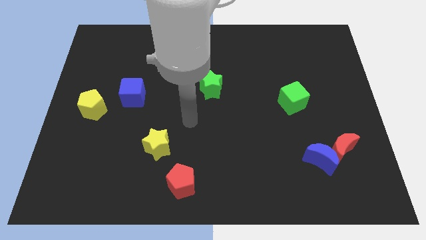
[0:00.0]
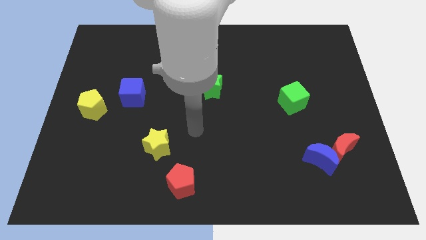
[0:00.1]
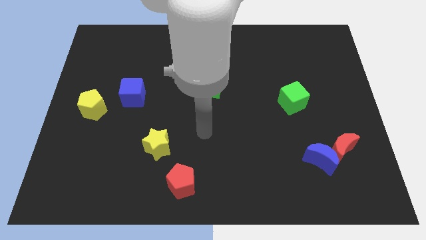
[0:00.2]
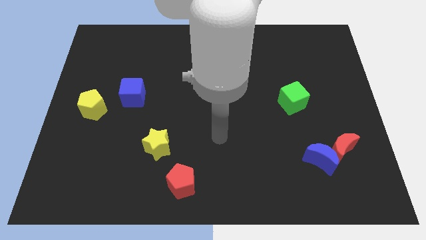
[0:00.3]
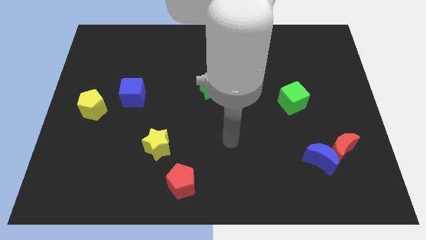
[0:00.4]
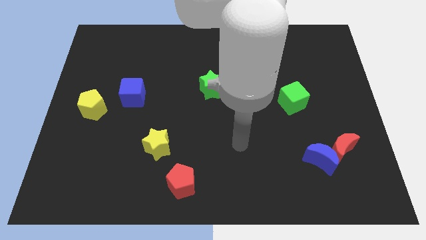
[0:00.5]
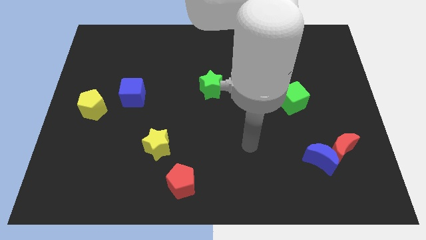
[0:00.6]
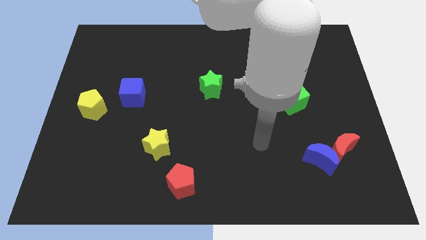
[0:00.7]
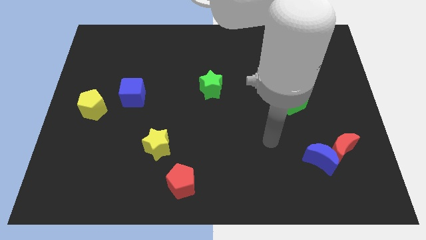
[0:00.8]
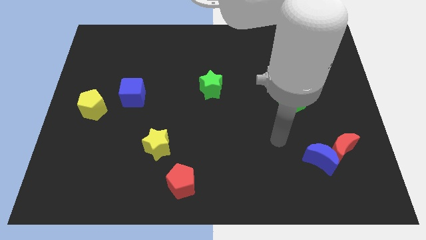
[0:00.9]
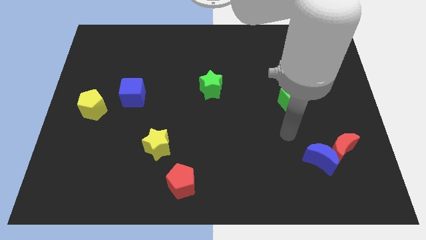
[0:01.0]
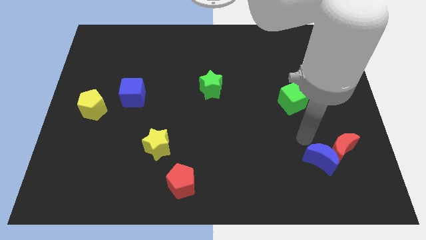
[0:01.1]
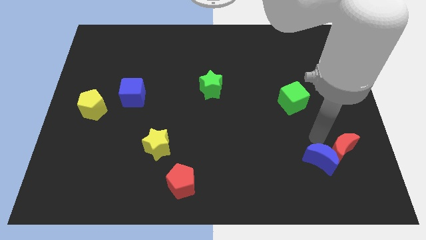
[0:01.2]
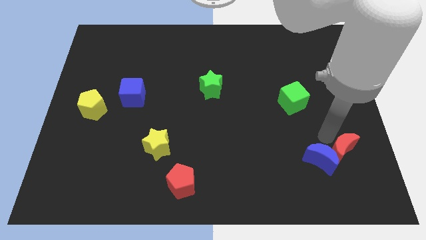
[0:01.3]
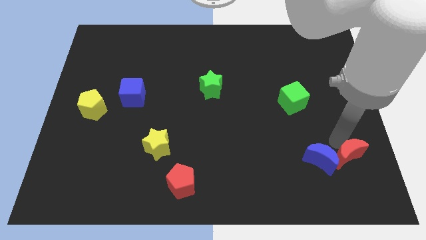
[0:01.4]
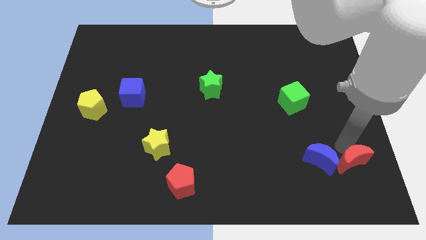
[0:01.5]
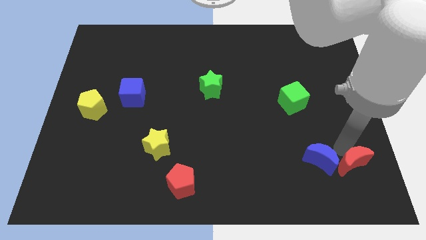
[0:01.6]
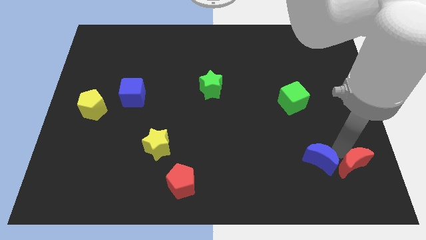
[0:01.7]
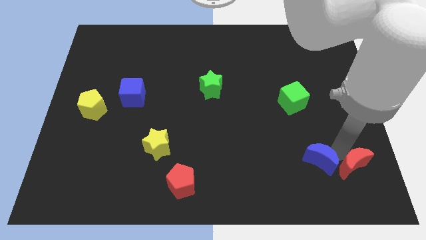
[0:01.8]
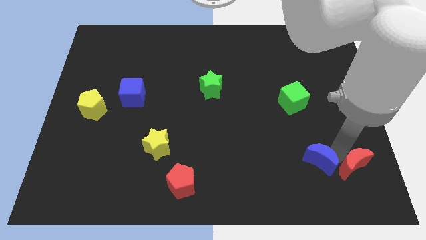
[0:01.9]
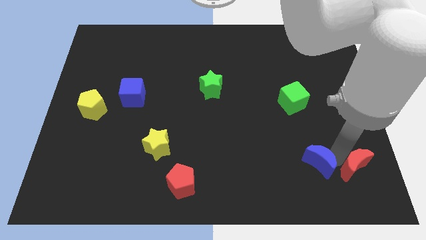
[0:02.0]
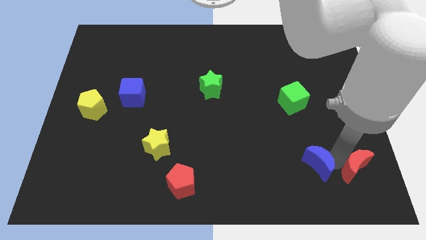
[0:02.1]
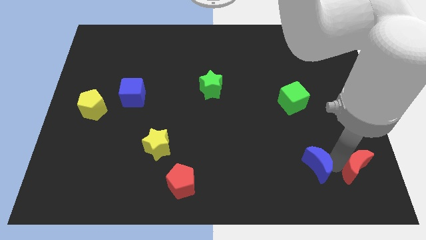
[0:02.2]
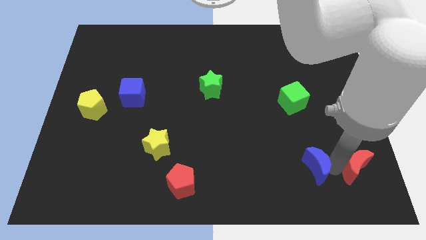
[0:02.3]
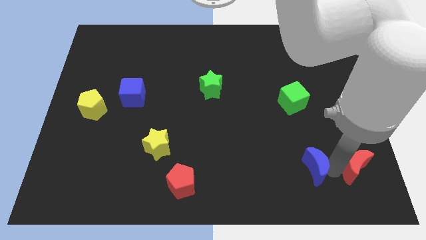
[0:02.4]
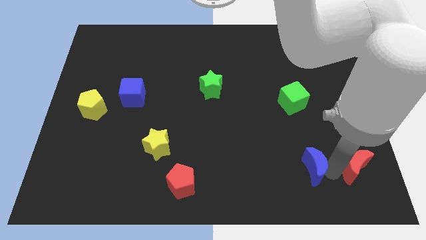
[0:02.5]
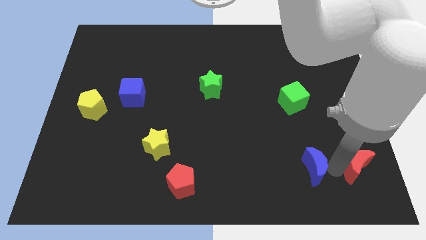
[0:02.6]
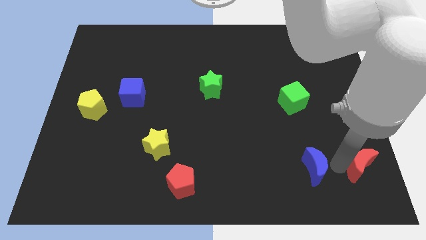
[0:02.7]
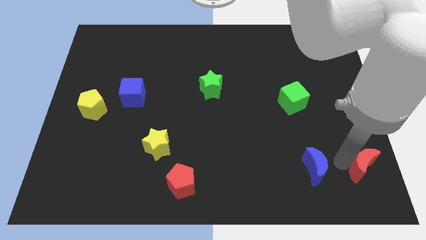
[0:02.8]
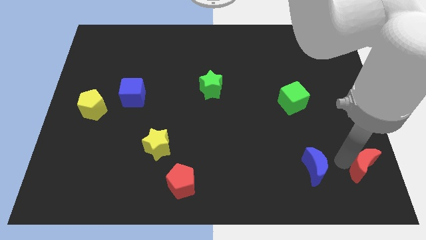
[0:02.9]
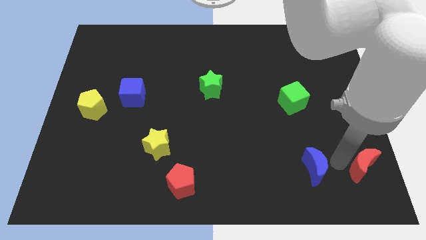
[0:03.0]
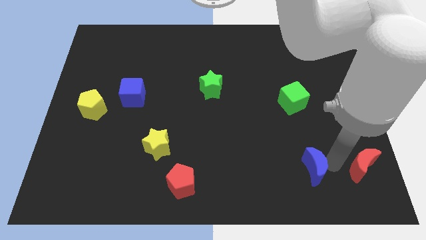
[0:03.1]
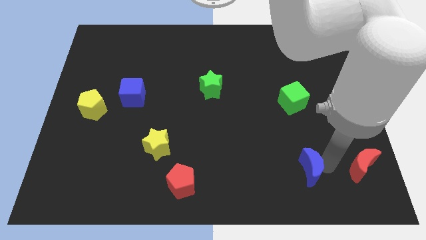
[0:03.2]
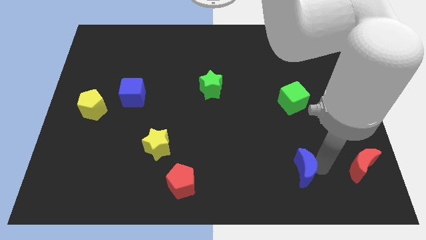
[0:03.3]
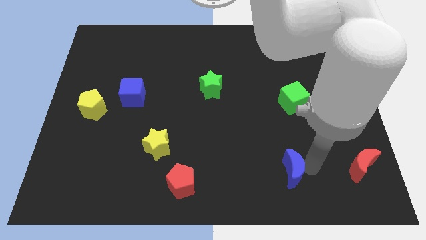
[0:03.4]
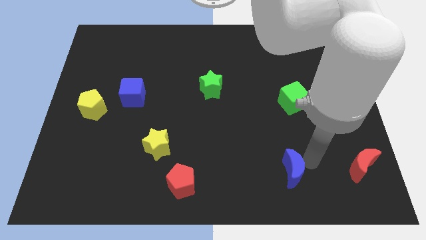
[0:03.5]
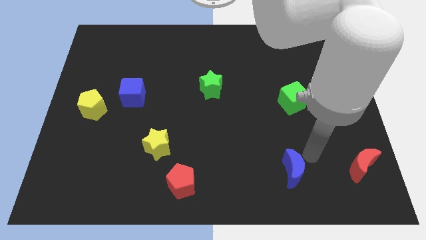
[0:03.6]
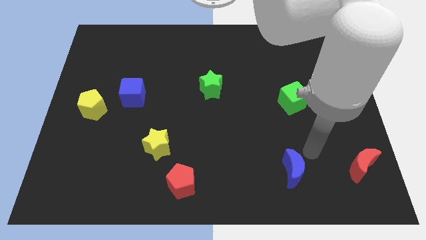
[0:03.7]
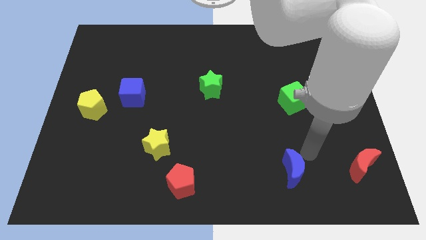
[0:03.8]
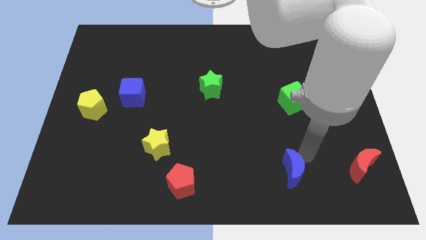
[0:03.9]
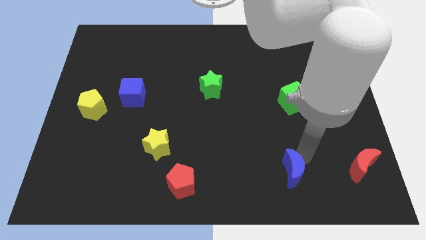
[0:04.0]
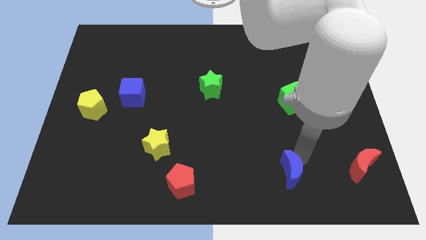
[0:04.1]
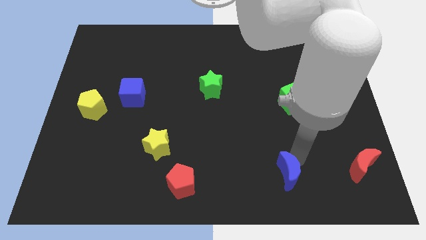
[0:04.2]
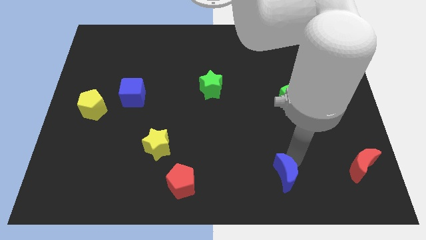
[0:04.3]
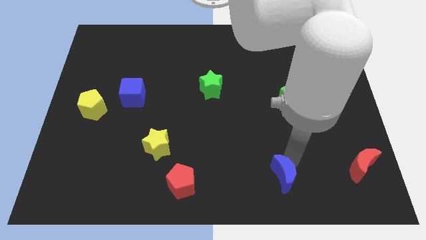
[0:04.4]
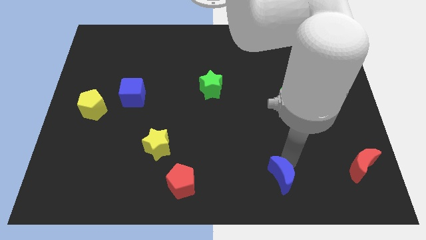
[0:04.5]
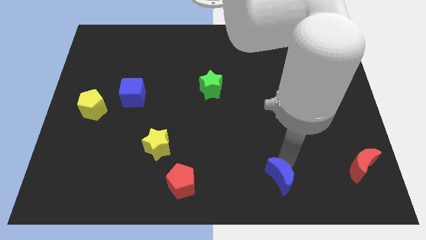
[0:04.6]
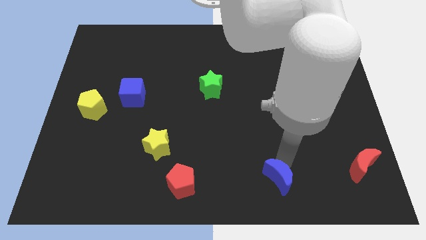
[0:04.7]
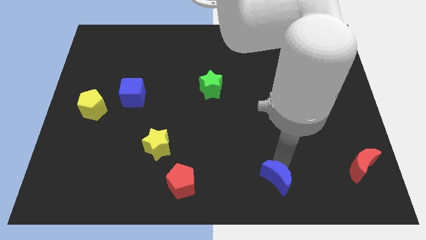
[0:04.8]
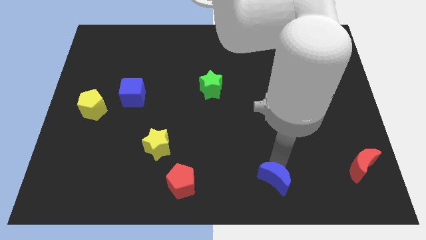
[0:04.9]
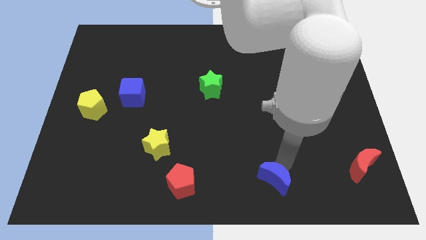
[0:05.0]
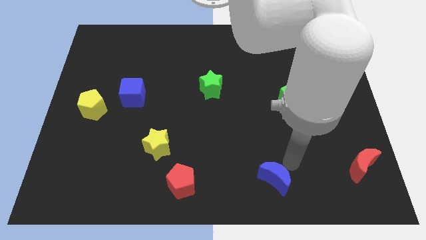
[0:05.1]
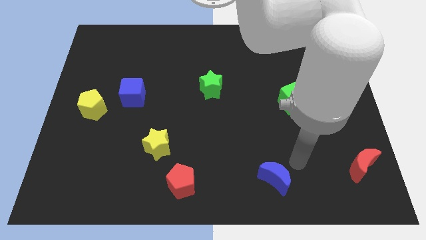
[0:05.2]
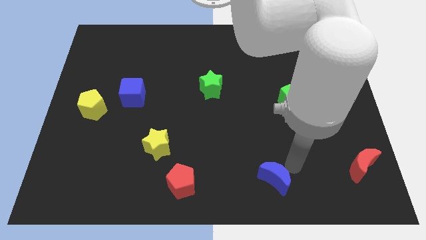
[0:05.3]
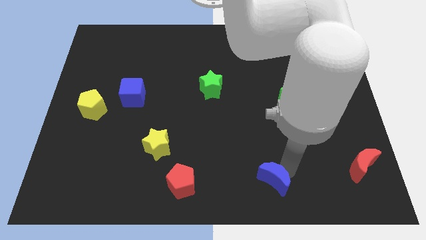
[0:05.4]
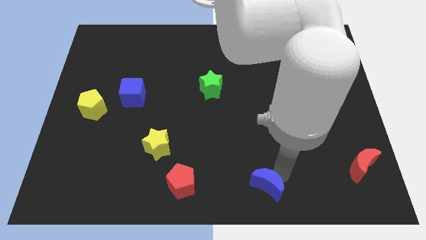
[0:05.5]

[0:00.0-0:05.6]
push the blue moon to the bottom

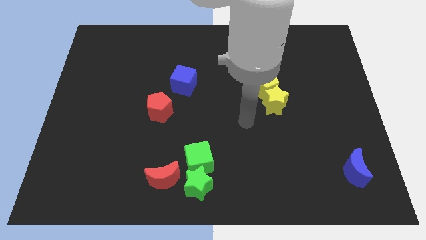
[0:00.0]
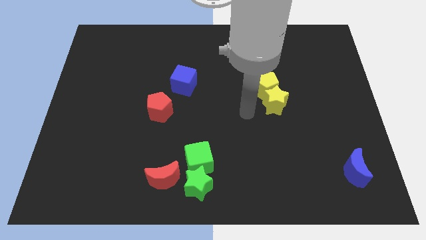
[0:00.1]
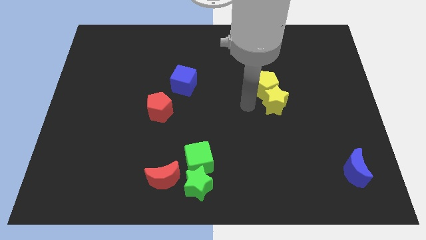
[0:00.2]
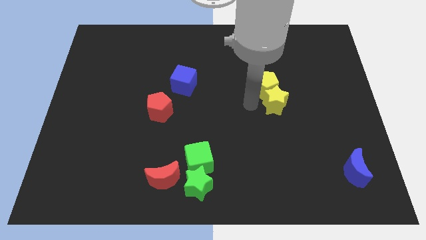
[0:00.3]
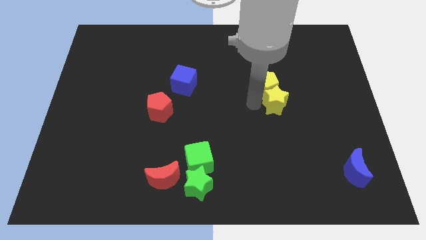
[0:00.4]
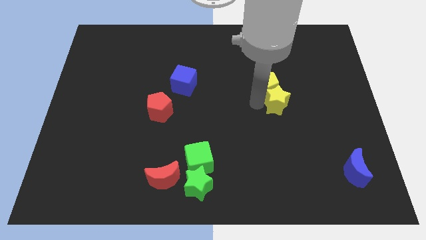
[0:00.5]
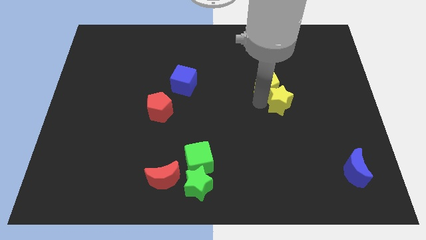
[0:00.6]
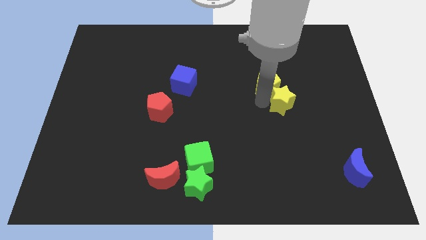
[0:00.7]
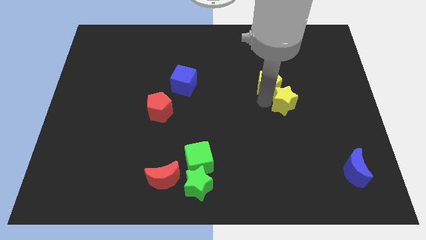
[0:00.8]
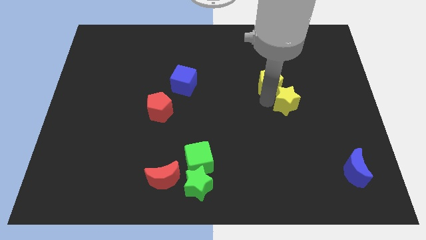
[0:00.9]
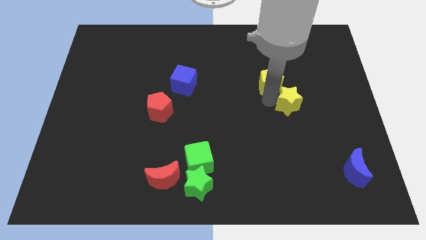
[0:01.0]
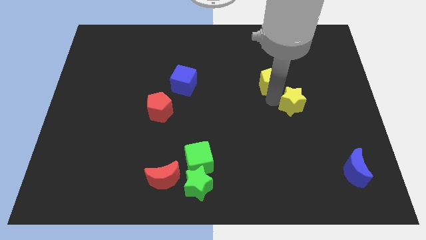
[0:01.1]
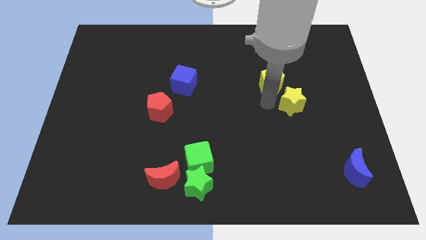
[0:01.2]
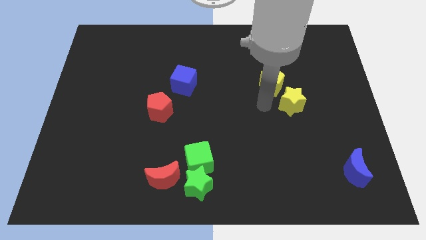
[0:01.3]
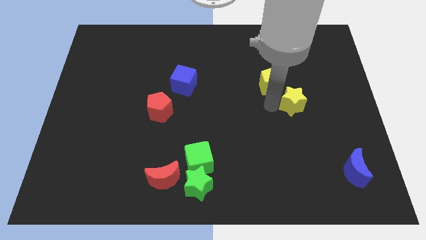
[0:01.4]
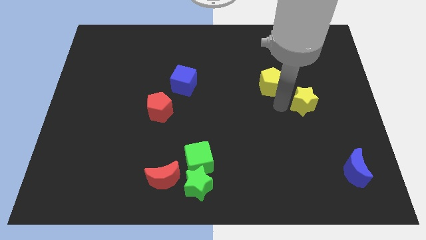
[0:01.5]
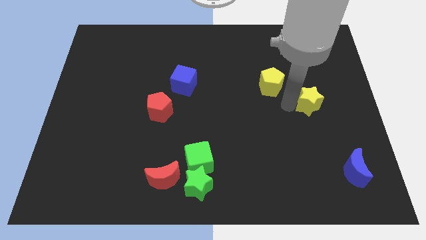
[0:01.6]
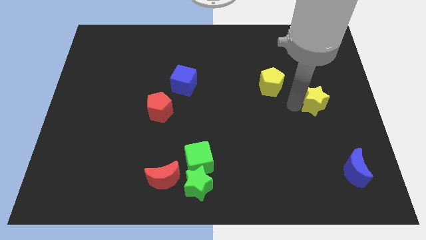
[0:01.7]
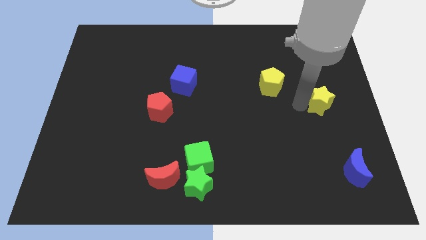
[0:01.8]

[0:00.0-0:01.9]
move the yellow star to the center right
